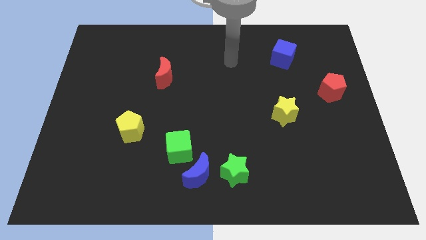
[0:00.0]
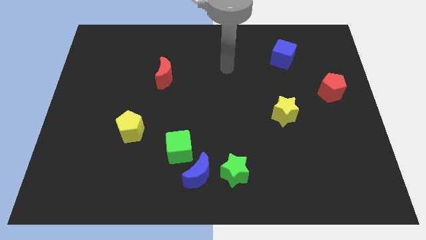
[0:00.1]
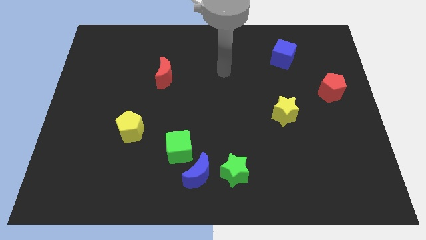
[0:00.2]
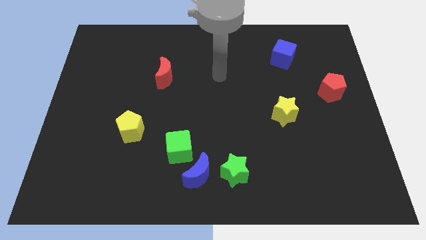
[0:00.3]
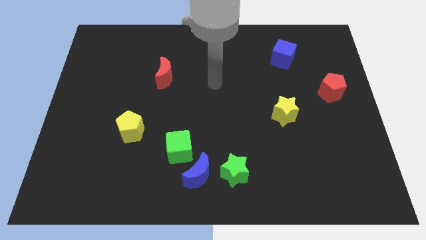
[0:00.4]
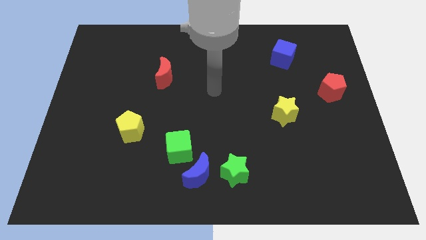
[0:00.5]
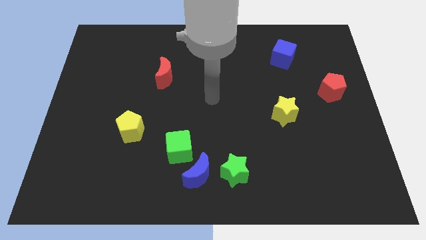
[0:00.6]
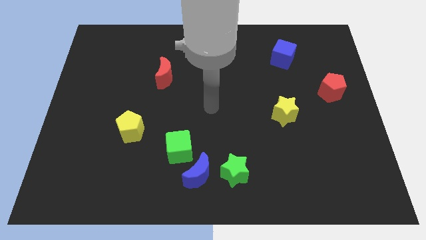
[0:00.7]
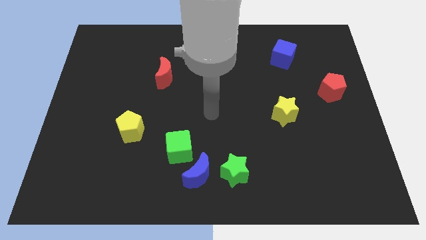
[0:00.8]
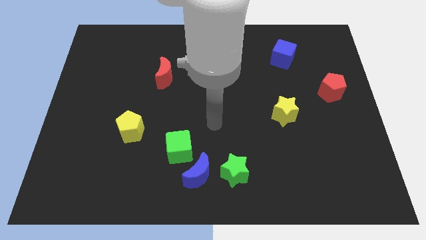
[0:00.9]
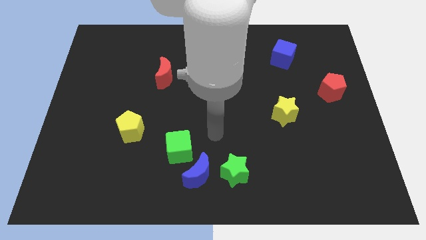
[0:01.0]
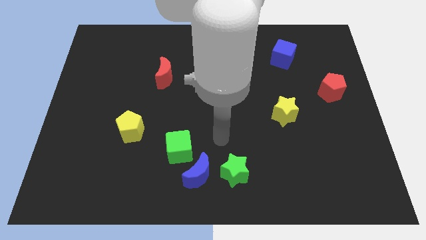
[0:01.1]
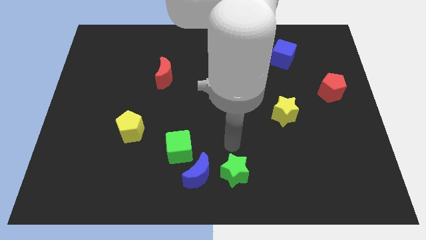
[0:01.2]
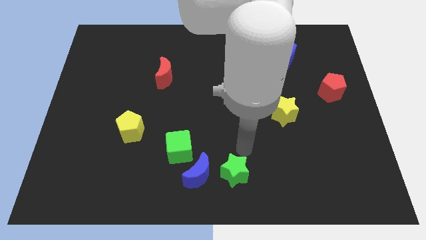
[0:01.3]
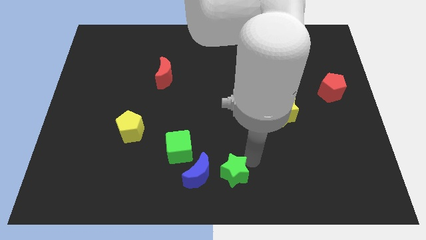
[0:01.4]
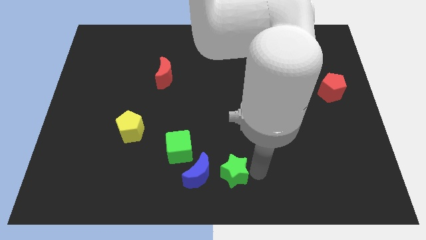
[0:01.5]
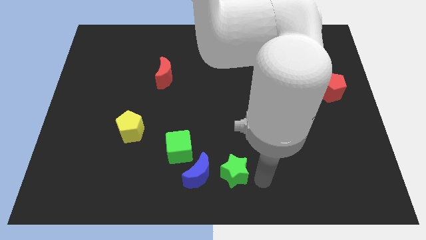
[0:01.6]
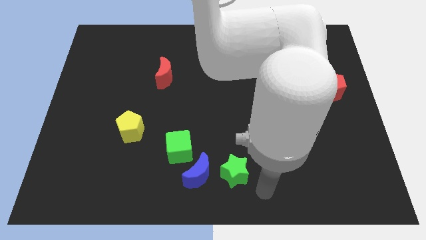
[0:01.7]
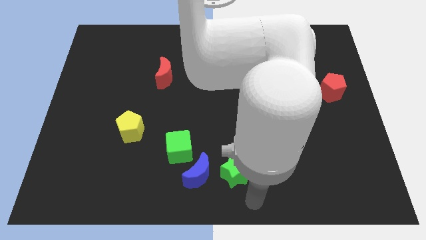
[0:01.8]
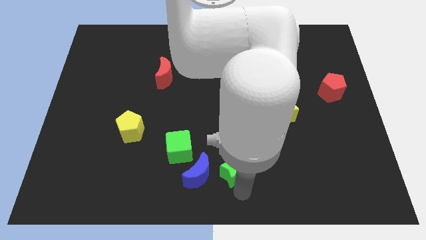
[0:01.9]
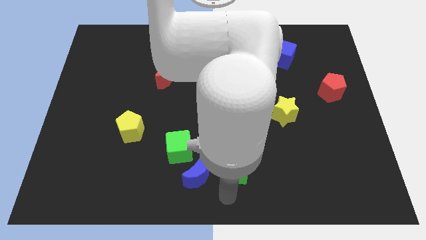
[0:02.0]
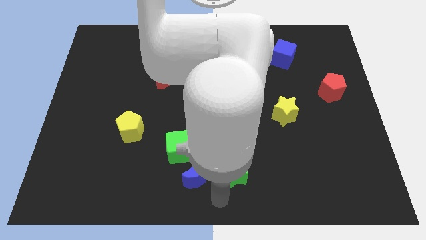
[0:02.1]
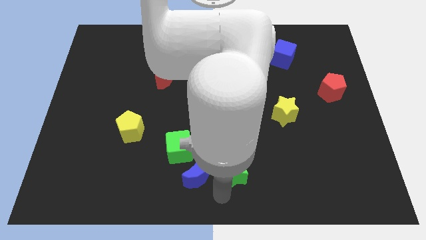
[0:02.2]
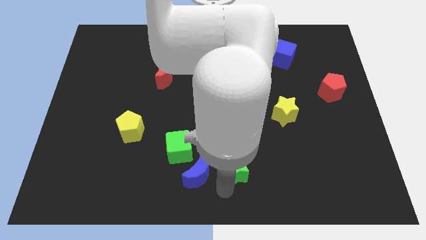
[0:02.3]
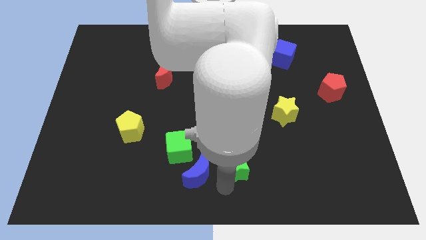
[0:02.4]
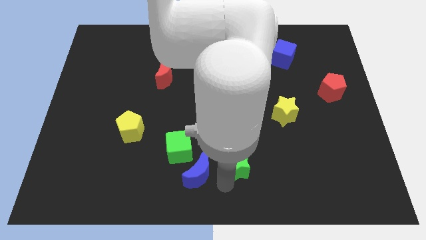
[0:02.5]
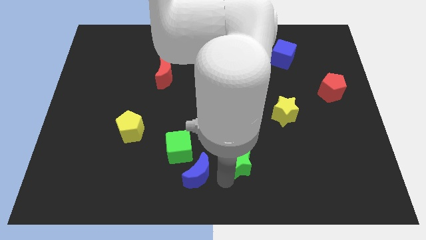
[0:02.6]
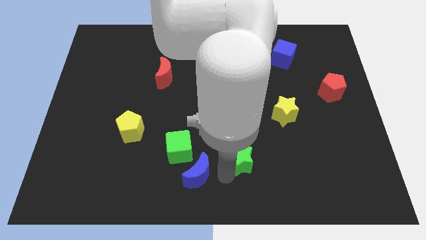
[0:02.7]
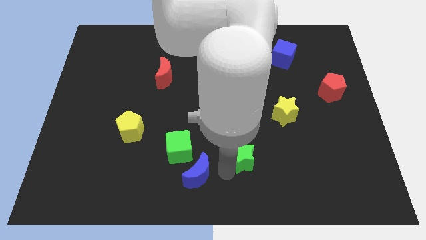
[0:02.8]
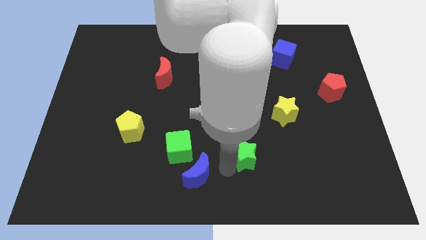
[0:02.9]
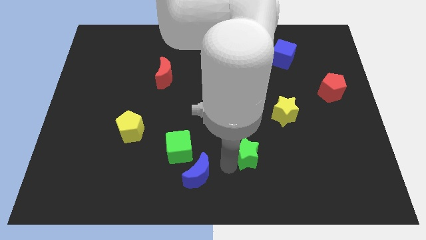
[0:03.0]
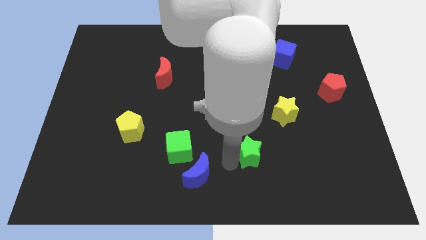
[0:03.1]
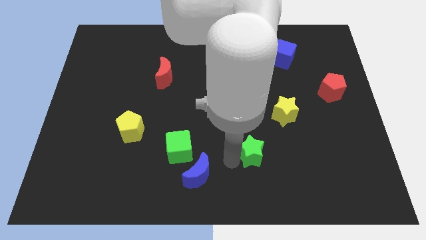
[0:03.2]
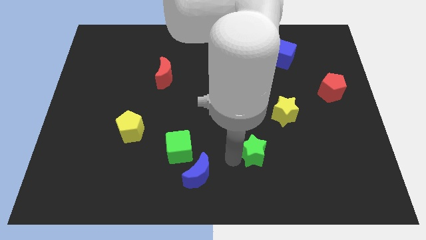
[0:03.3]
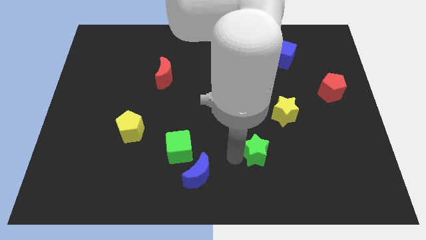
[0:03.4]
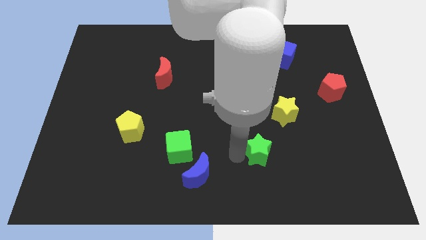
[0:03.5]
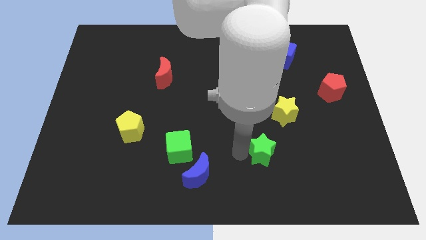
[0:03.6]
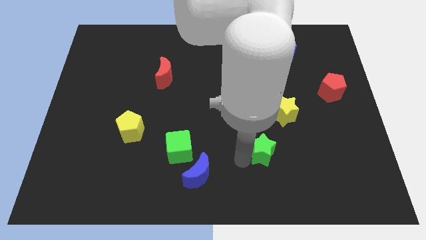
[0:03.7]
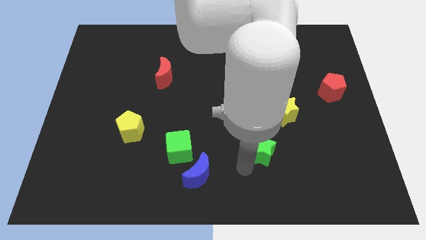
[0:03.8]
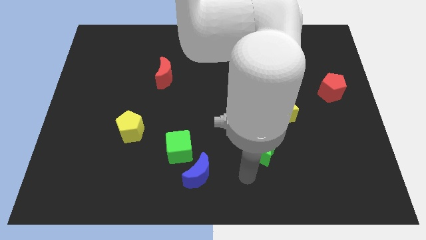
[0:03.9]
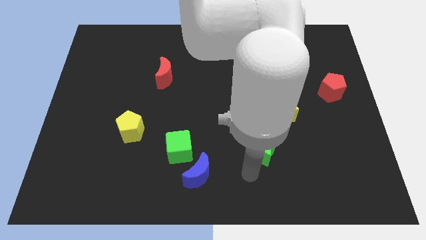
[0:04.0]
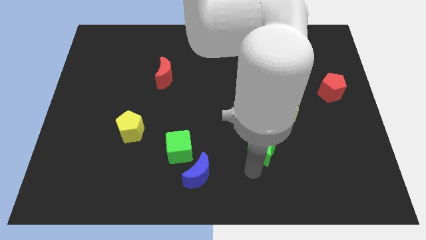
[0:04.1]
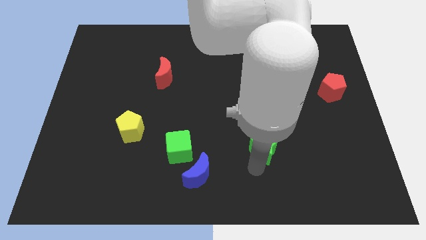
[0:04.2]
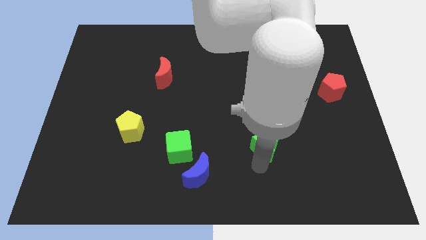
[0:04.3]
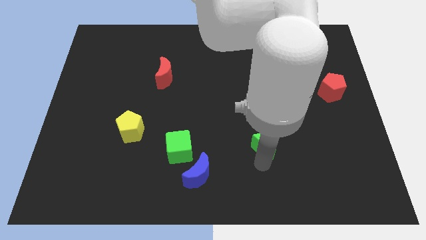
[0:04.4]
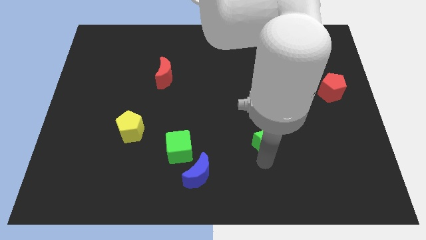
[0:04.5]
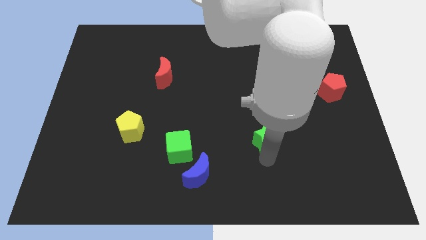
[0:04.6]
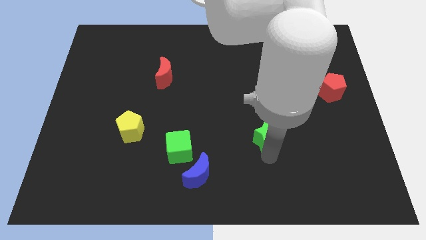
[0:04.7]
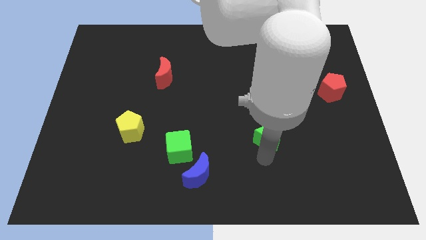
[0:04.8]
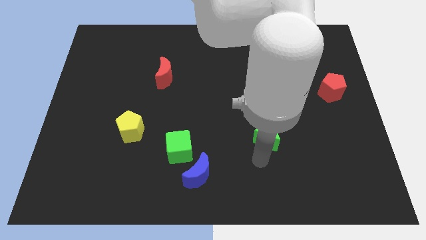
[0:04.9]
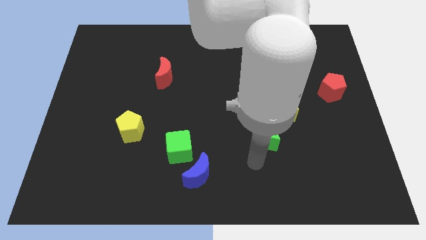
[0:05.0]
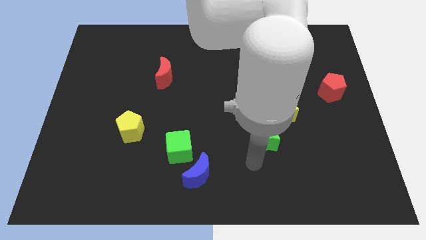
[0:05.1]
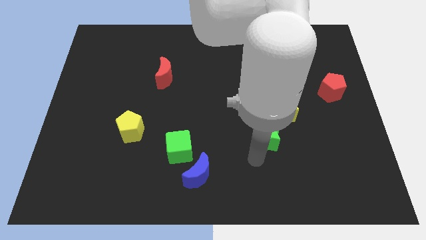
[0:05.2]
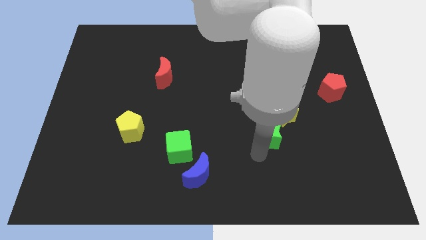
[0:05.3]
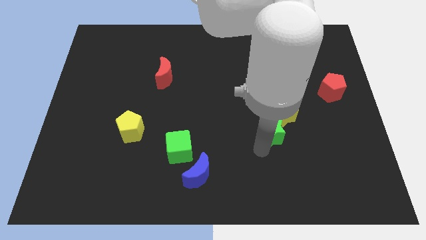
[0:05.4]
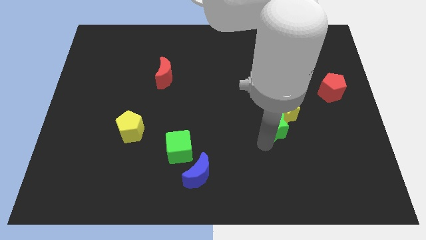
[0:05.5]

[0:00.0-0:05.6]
push the green star next to the yellow star

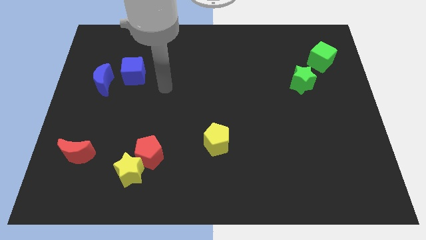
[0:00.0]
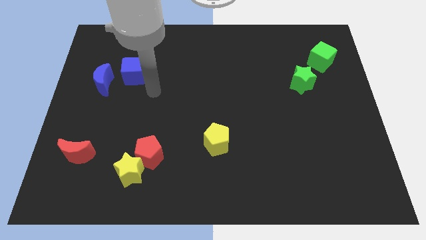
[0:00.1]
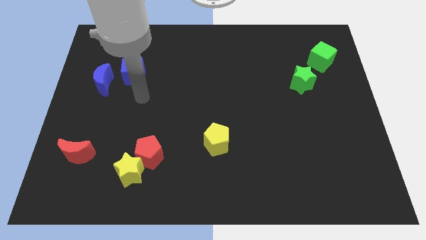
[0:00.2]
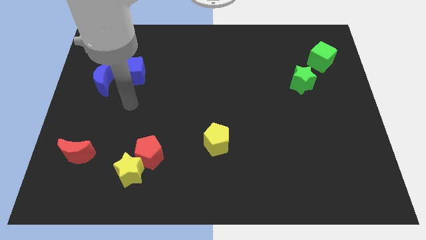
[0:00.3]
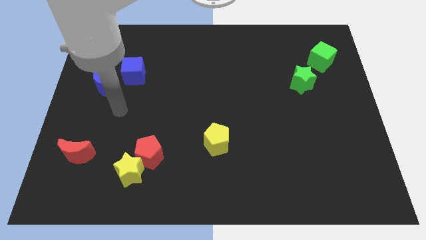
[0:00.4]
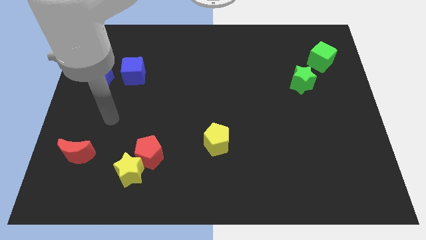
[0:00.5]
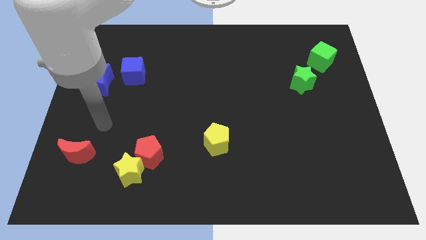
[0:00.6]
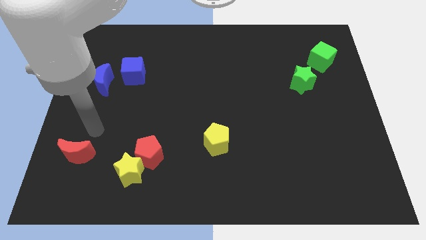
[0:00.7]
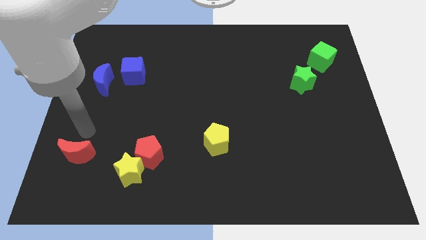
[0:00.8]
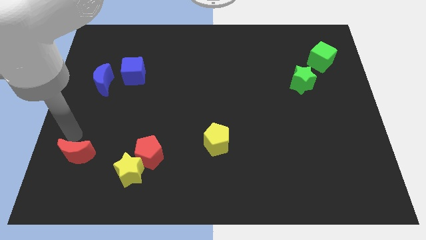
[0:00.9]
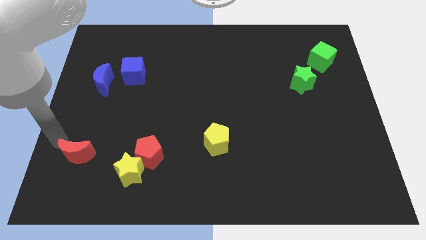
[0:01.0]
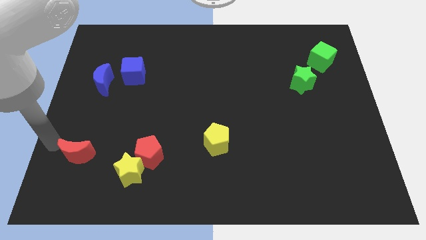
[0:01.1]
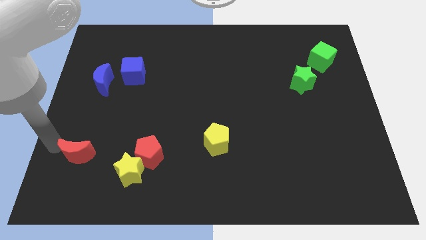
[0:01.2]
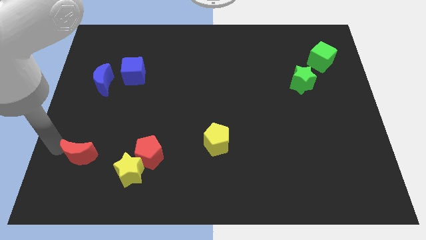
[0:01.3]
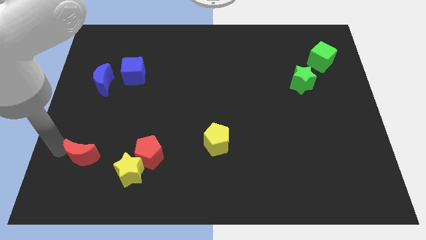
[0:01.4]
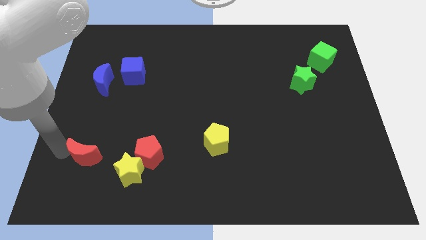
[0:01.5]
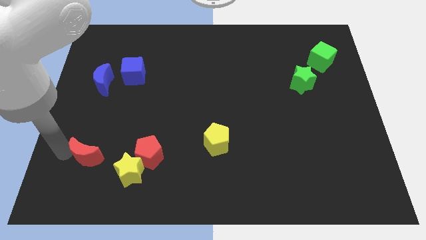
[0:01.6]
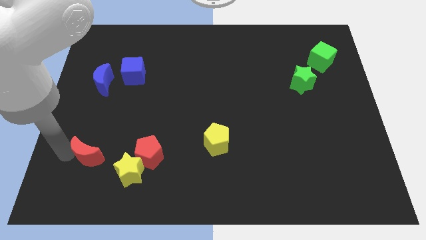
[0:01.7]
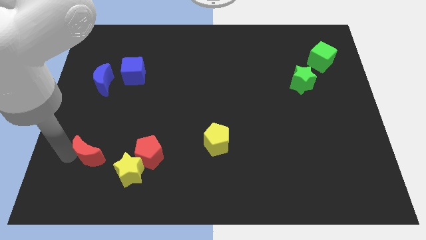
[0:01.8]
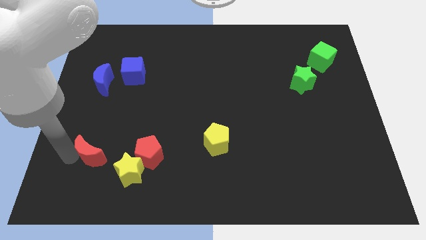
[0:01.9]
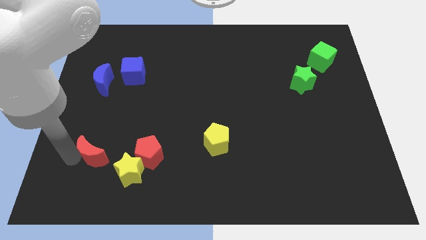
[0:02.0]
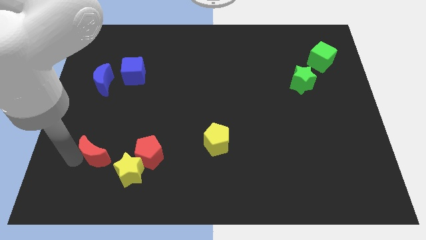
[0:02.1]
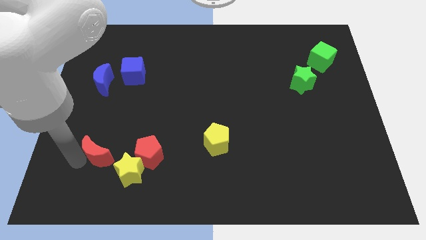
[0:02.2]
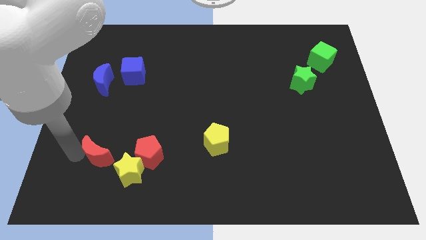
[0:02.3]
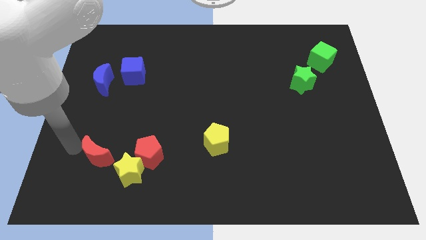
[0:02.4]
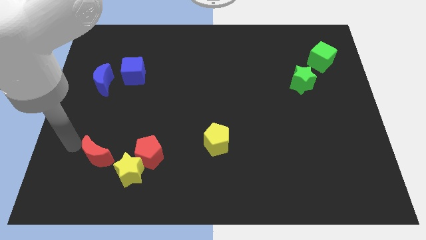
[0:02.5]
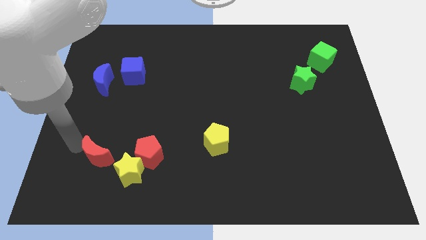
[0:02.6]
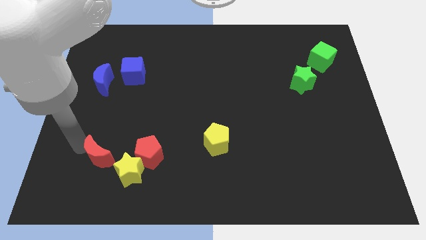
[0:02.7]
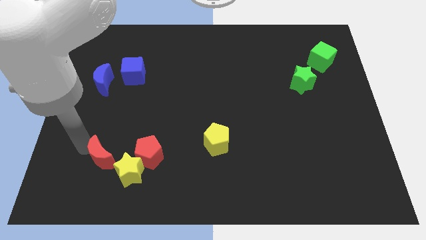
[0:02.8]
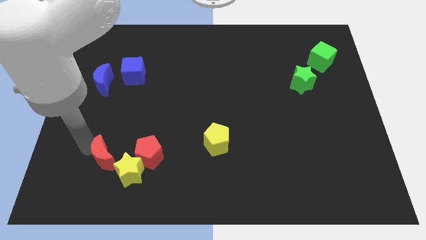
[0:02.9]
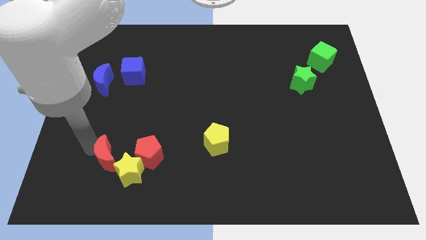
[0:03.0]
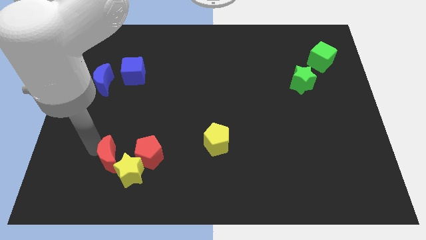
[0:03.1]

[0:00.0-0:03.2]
push the red moon to the yellow star
